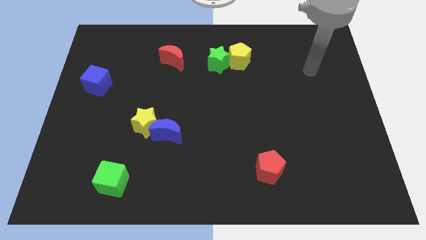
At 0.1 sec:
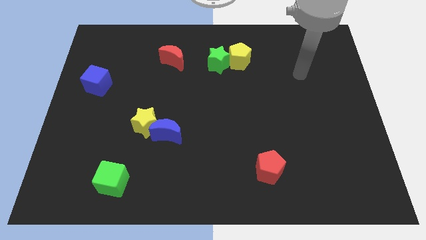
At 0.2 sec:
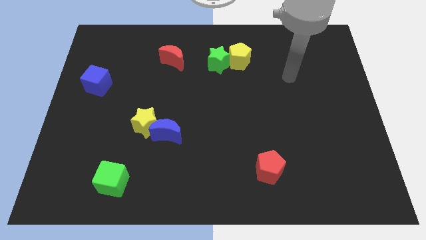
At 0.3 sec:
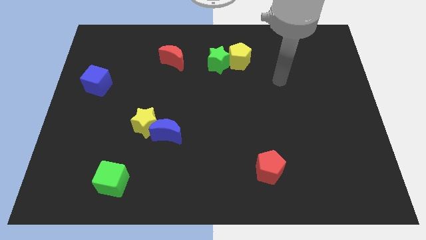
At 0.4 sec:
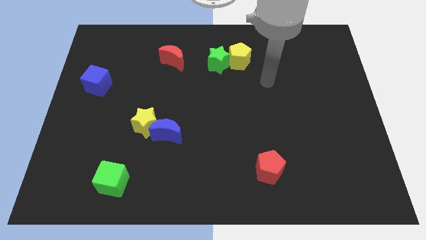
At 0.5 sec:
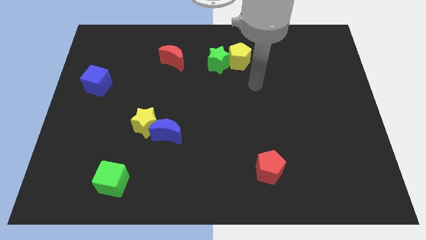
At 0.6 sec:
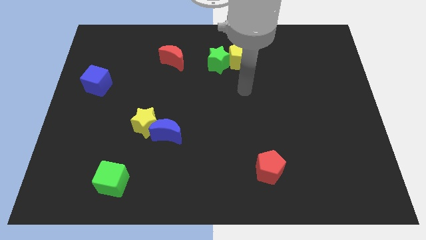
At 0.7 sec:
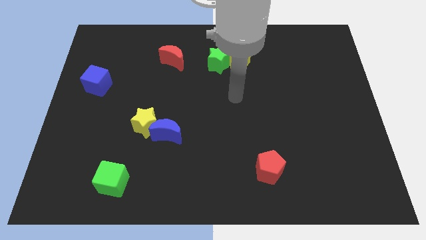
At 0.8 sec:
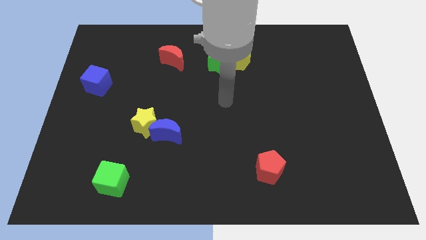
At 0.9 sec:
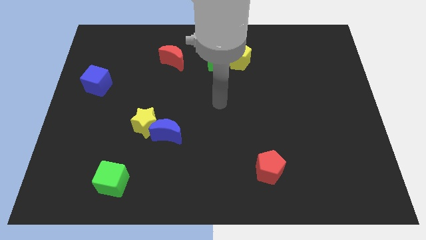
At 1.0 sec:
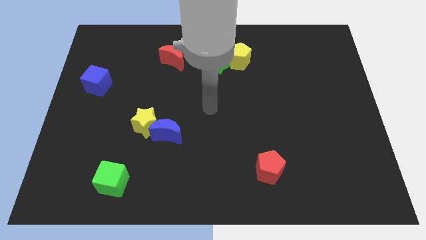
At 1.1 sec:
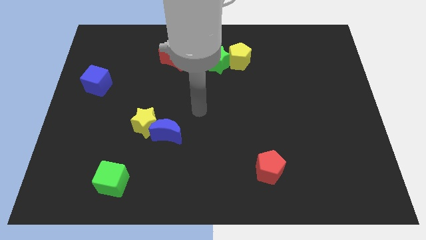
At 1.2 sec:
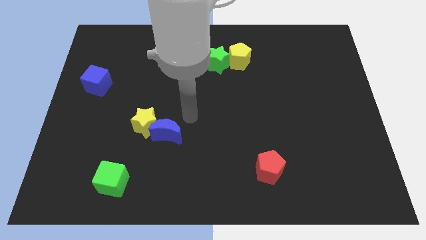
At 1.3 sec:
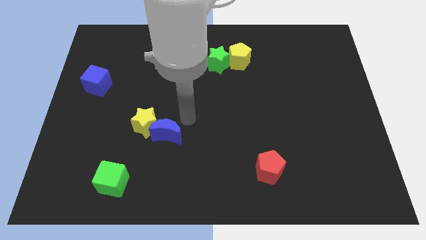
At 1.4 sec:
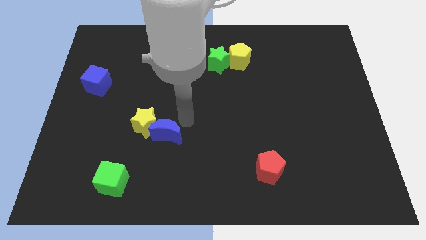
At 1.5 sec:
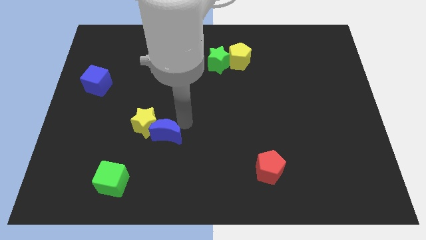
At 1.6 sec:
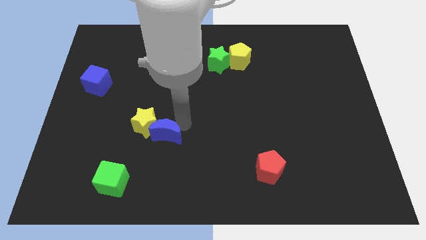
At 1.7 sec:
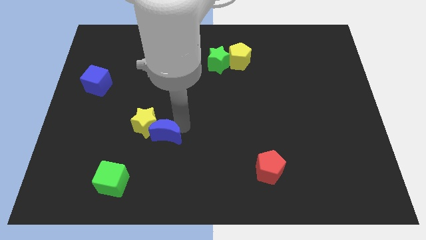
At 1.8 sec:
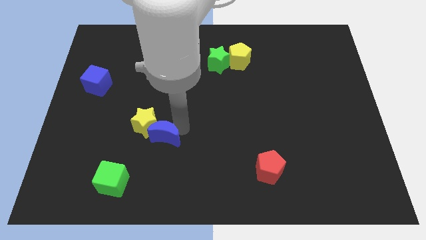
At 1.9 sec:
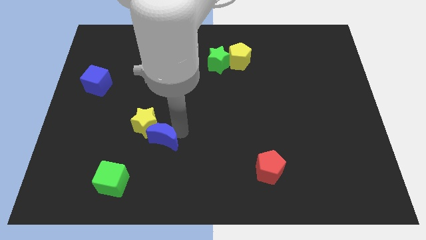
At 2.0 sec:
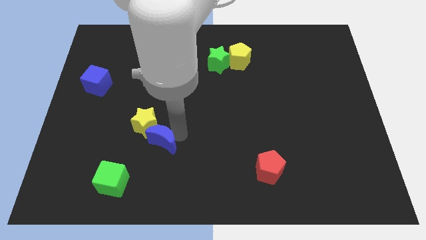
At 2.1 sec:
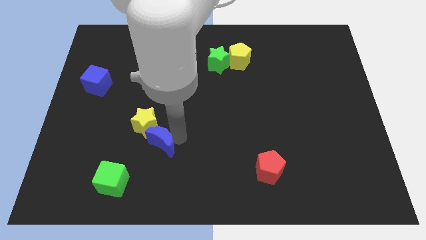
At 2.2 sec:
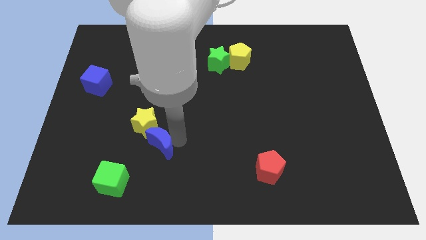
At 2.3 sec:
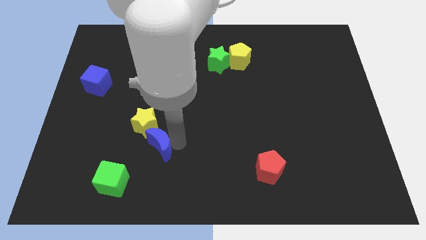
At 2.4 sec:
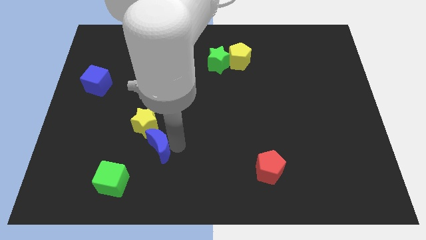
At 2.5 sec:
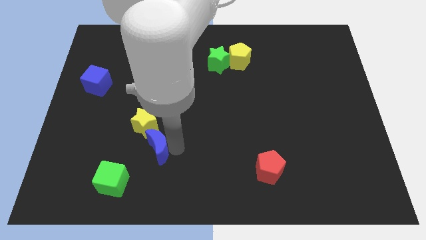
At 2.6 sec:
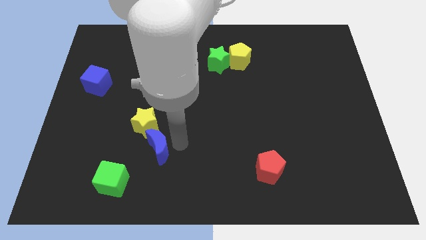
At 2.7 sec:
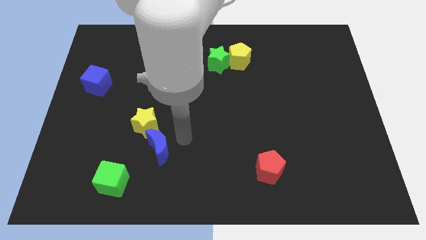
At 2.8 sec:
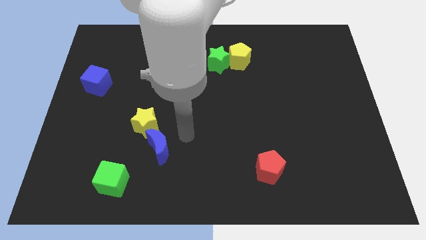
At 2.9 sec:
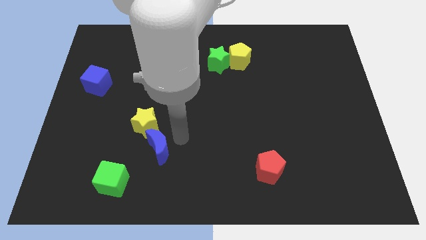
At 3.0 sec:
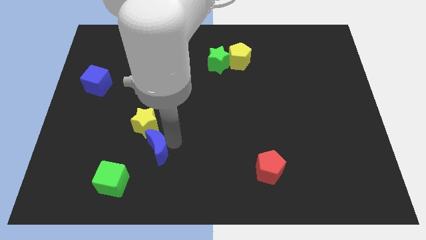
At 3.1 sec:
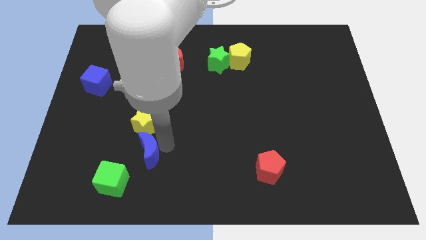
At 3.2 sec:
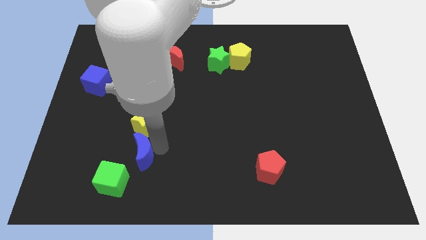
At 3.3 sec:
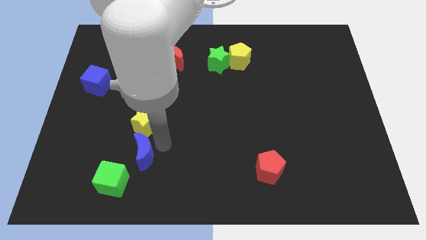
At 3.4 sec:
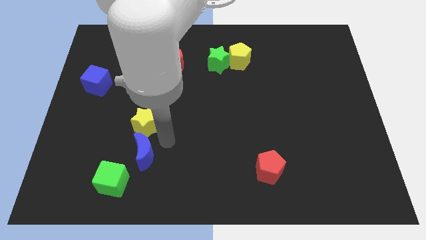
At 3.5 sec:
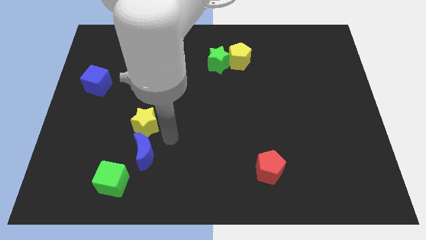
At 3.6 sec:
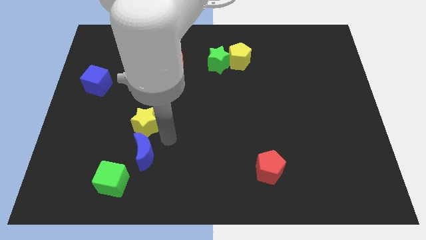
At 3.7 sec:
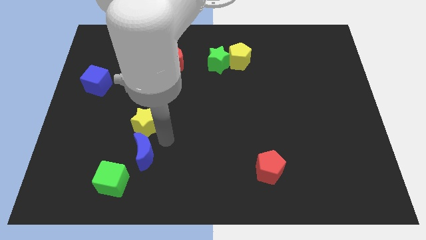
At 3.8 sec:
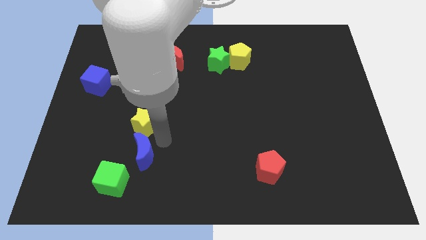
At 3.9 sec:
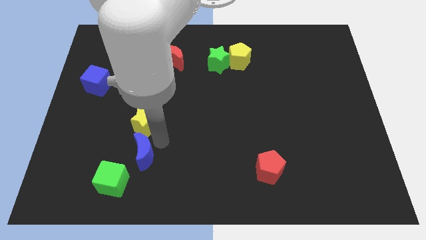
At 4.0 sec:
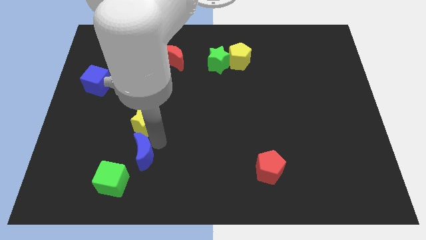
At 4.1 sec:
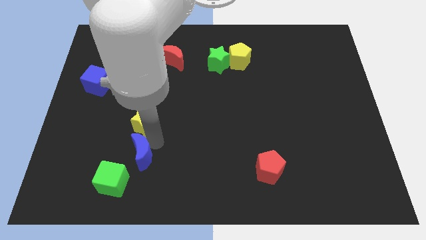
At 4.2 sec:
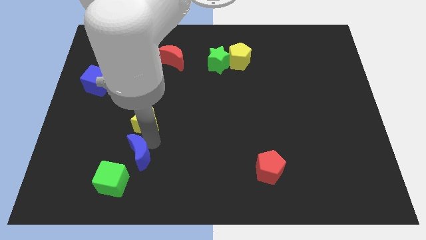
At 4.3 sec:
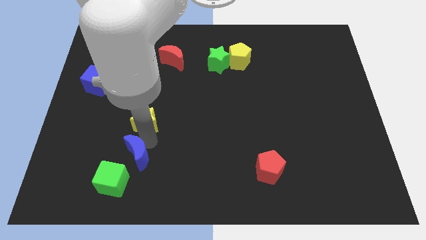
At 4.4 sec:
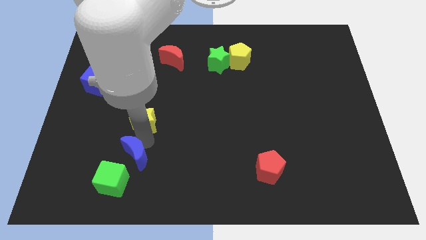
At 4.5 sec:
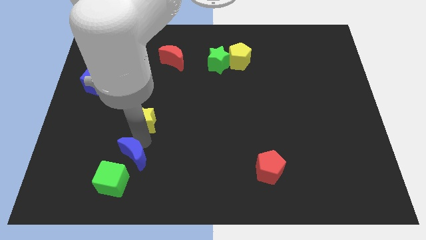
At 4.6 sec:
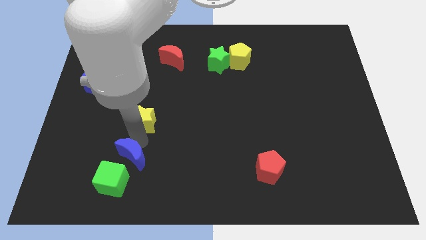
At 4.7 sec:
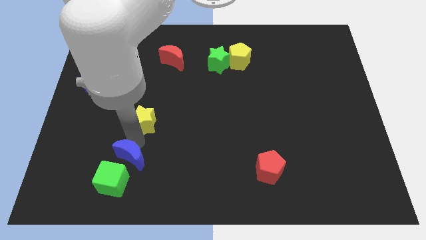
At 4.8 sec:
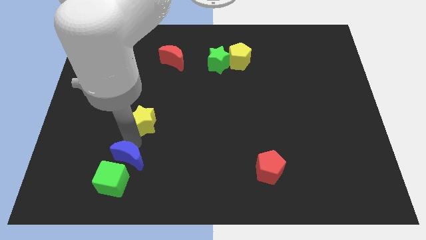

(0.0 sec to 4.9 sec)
put the blue moon next to the green cube

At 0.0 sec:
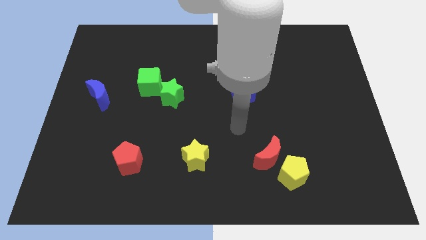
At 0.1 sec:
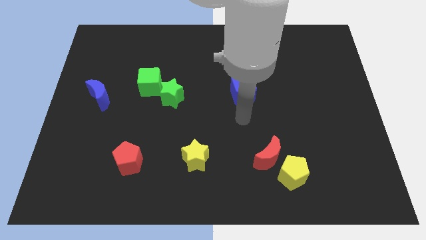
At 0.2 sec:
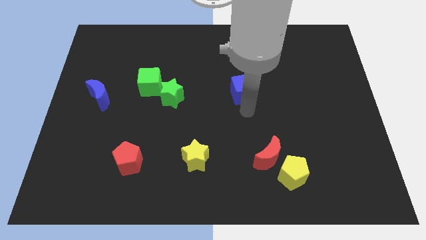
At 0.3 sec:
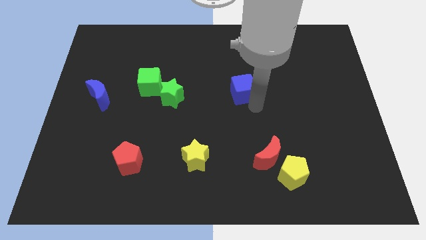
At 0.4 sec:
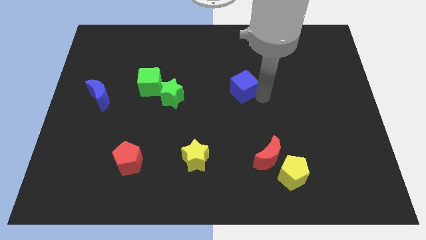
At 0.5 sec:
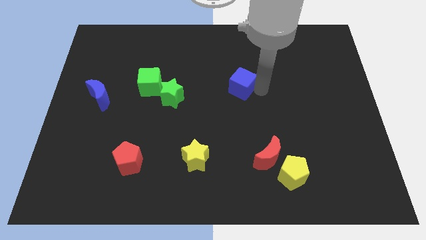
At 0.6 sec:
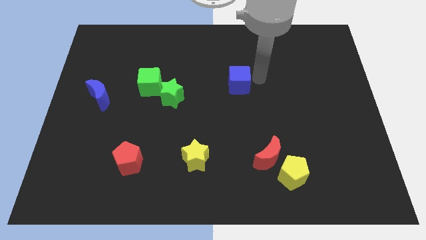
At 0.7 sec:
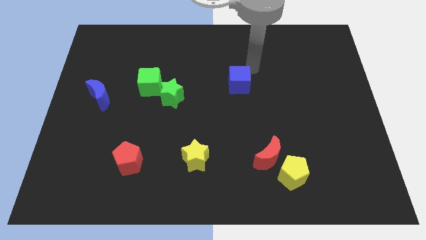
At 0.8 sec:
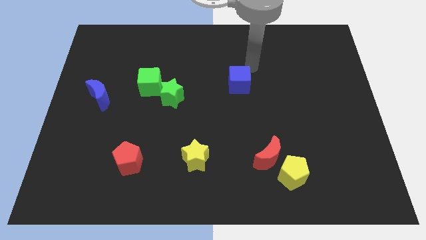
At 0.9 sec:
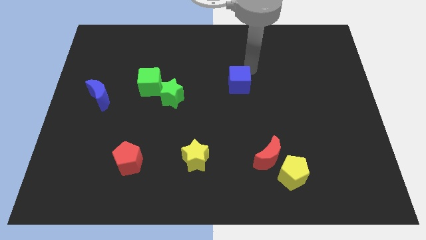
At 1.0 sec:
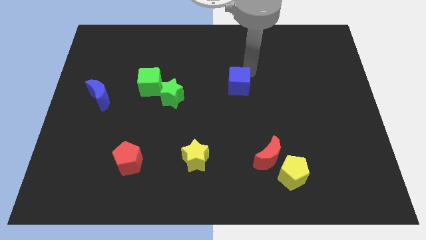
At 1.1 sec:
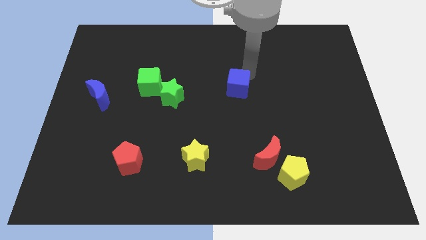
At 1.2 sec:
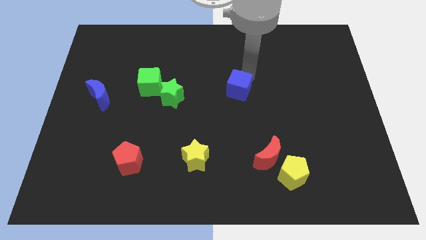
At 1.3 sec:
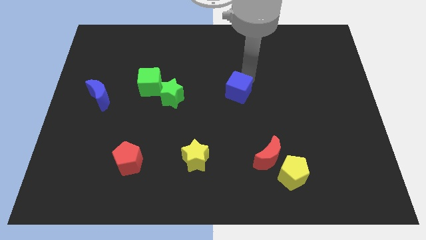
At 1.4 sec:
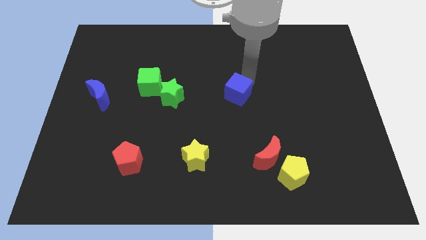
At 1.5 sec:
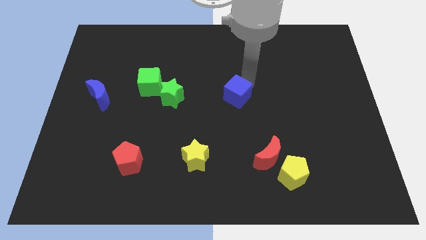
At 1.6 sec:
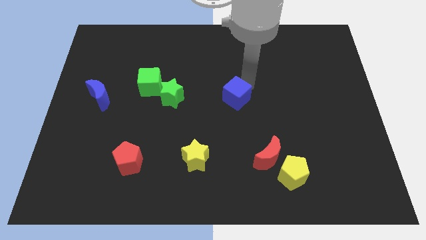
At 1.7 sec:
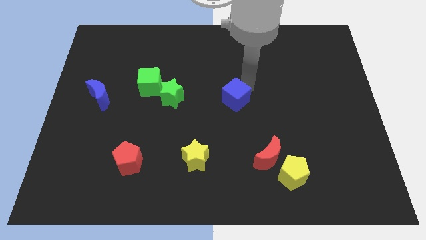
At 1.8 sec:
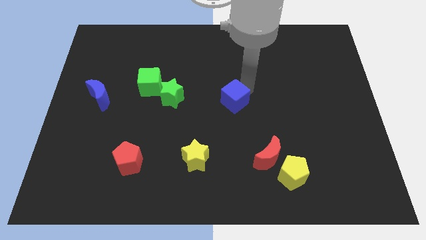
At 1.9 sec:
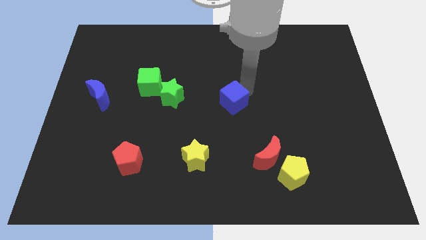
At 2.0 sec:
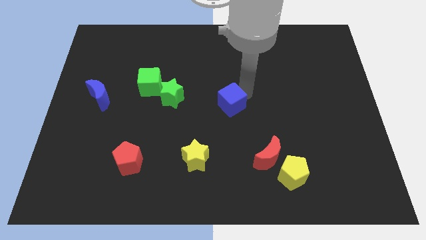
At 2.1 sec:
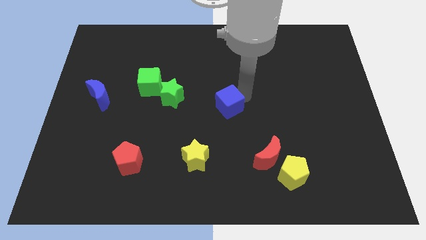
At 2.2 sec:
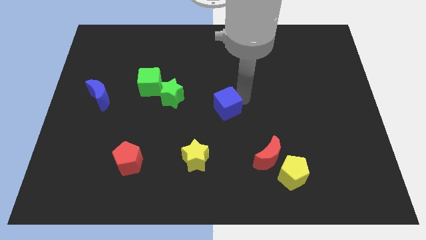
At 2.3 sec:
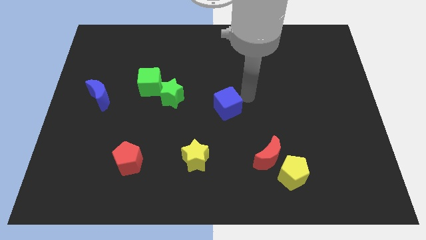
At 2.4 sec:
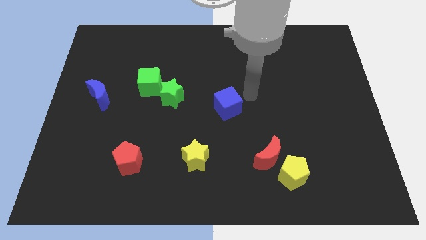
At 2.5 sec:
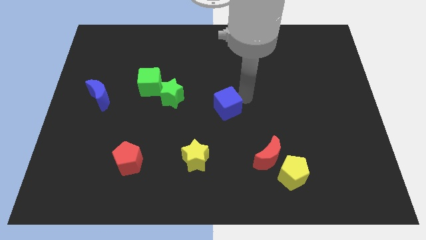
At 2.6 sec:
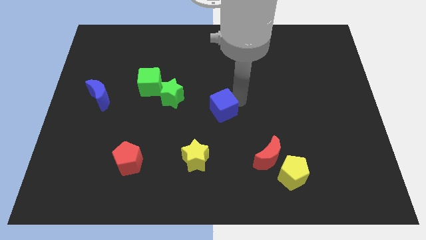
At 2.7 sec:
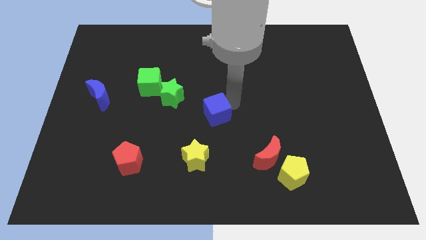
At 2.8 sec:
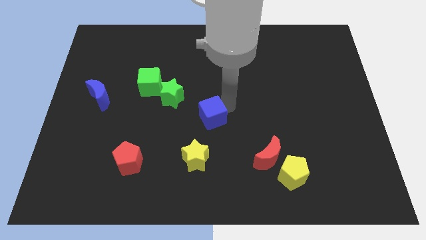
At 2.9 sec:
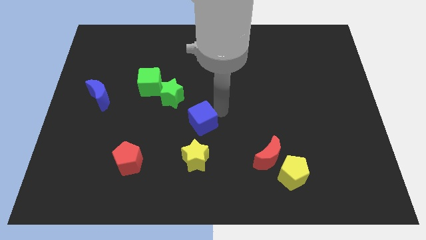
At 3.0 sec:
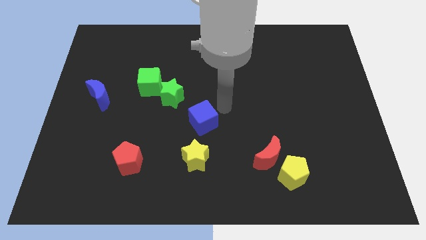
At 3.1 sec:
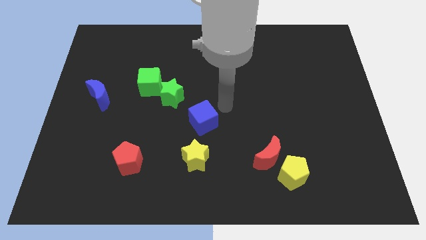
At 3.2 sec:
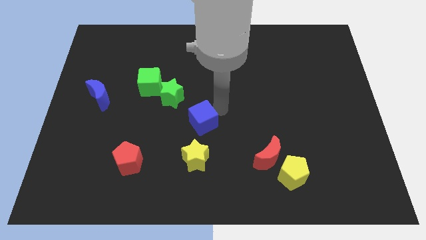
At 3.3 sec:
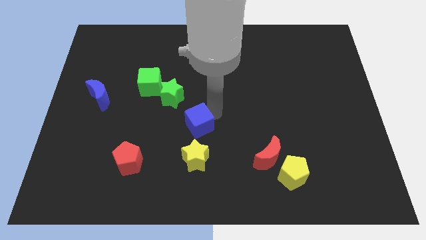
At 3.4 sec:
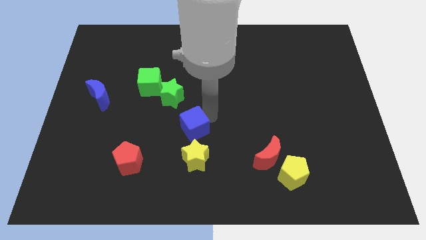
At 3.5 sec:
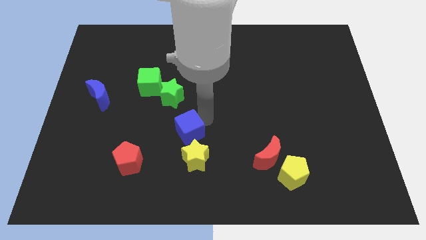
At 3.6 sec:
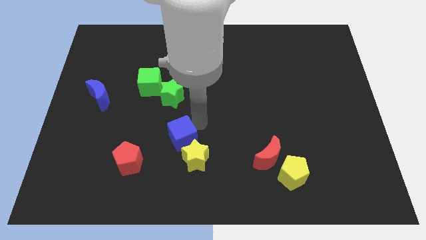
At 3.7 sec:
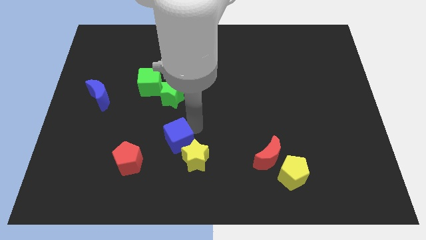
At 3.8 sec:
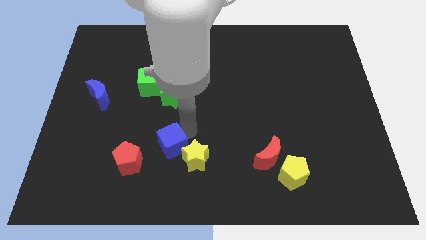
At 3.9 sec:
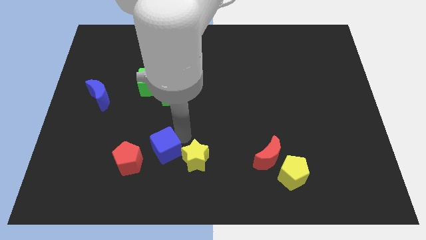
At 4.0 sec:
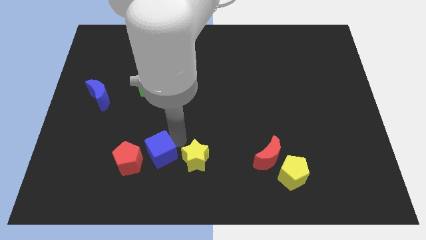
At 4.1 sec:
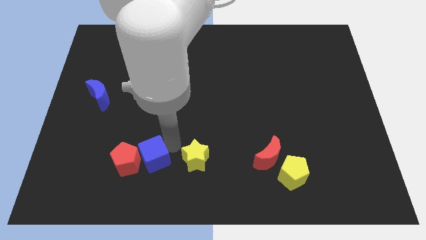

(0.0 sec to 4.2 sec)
put the blue cube next to the red pentagon
